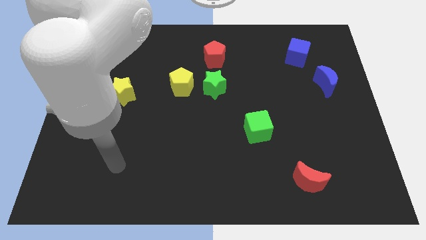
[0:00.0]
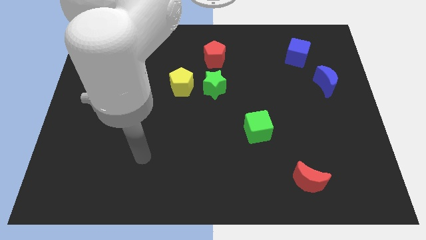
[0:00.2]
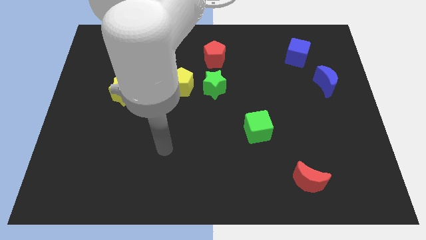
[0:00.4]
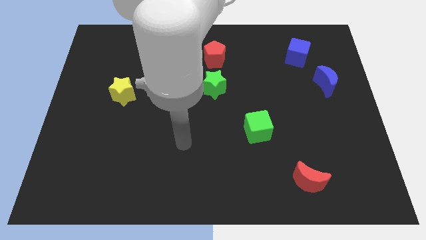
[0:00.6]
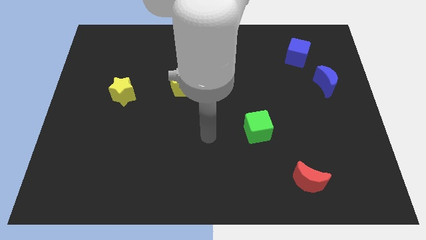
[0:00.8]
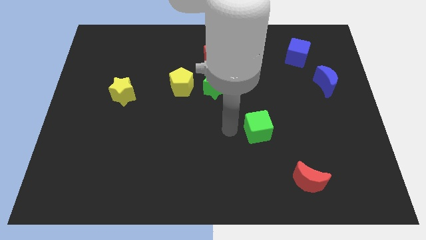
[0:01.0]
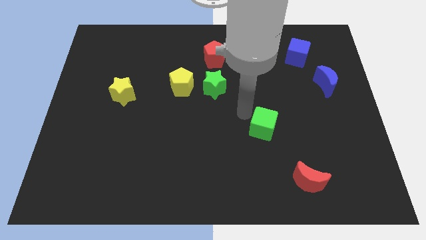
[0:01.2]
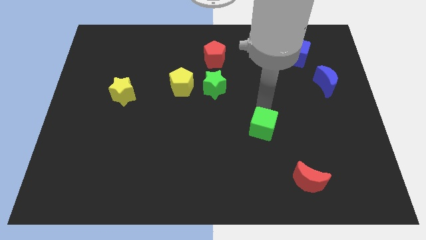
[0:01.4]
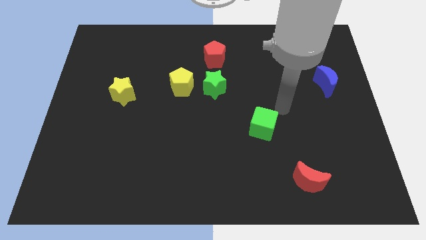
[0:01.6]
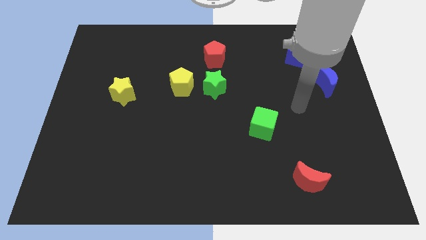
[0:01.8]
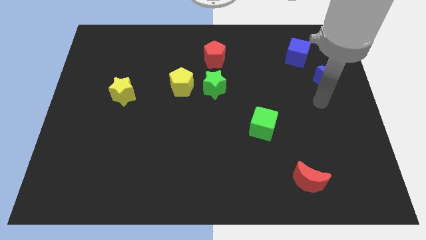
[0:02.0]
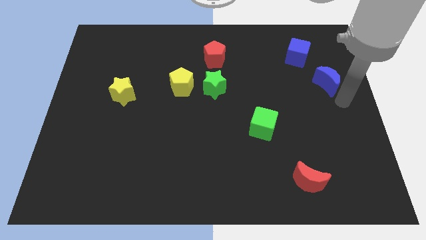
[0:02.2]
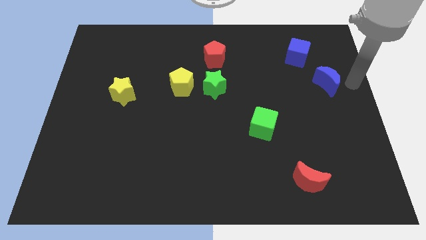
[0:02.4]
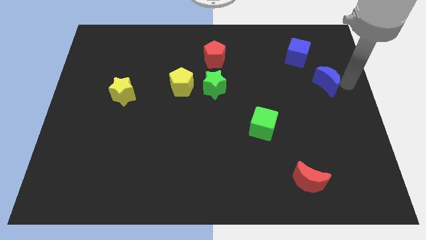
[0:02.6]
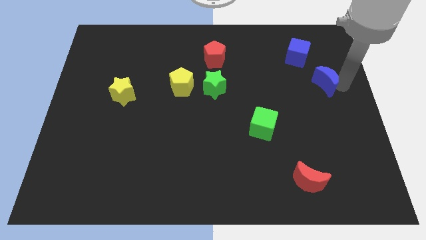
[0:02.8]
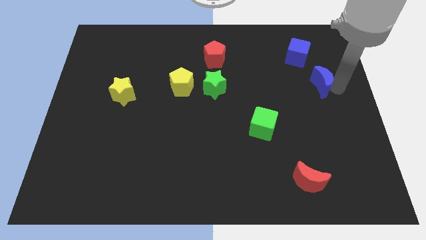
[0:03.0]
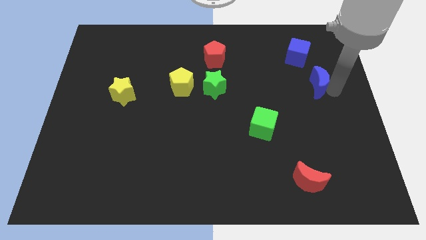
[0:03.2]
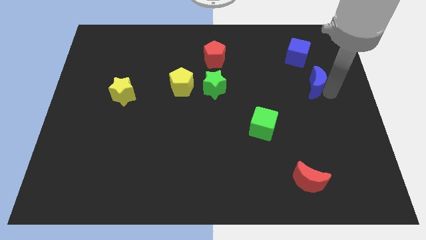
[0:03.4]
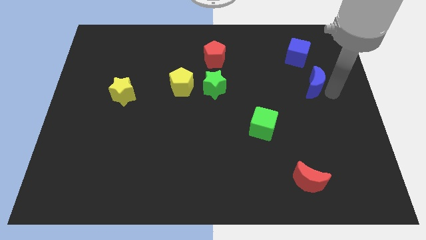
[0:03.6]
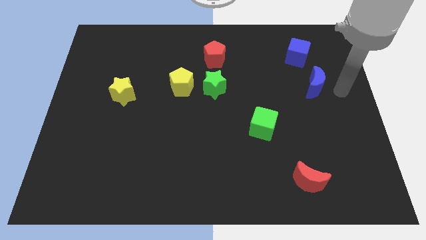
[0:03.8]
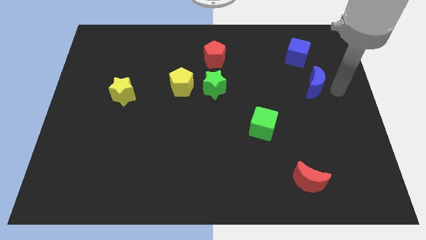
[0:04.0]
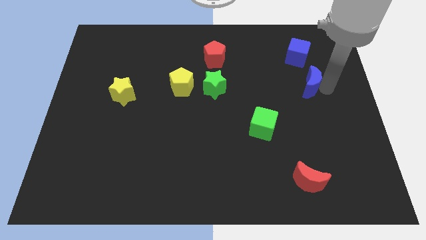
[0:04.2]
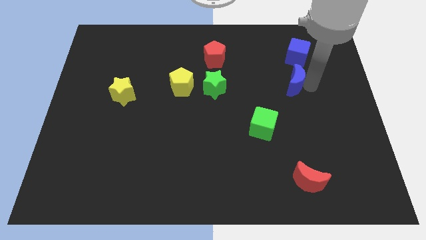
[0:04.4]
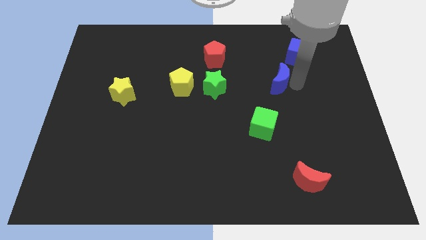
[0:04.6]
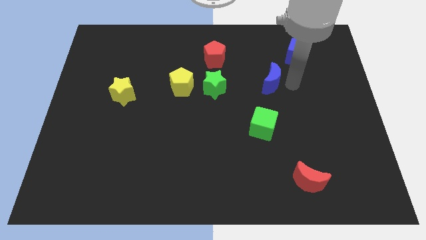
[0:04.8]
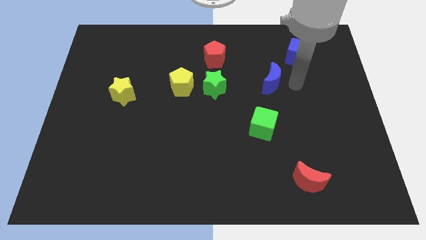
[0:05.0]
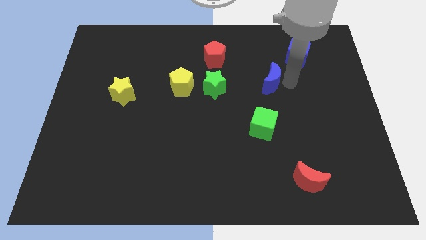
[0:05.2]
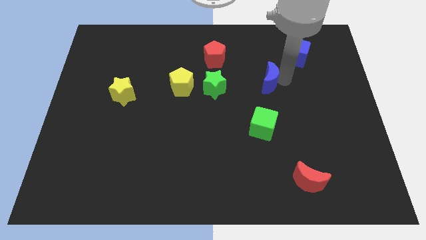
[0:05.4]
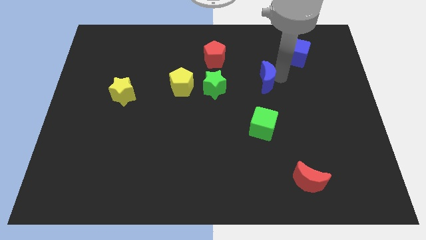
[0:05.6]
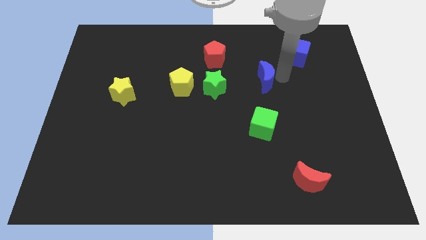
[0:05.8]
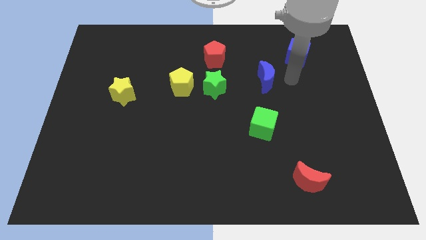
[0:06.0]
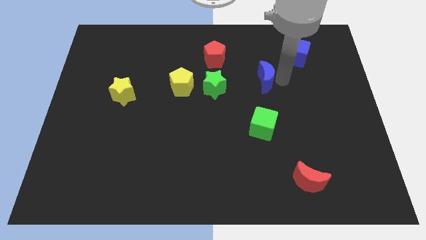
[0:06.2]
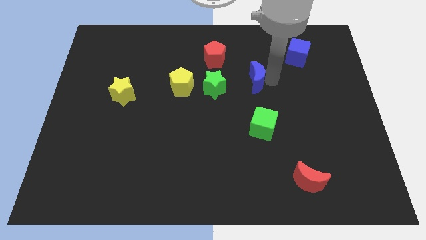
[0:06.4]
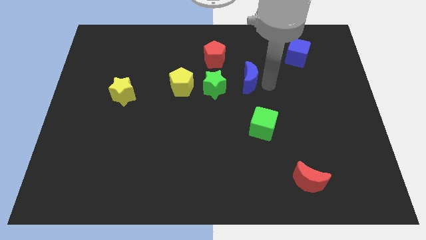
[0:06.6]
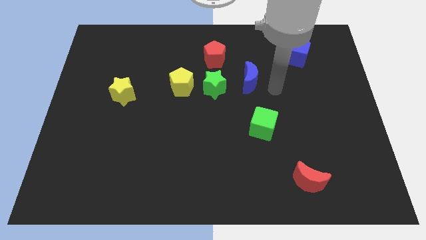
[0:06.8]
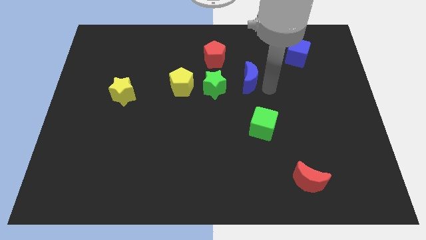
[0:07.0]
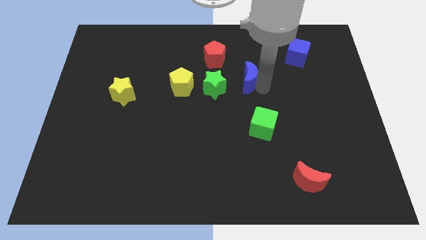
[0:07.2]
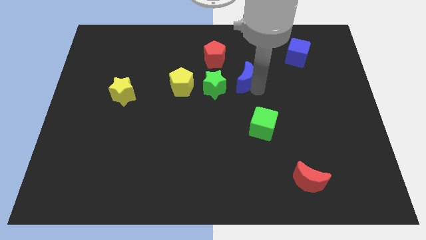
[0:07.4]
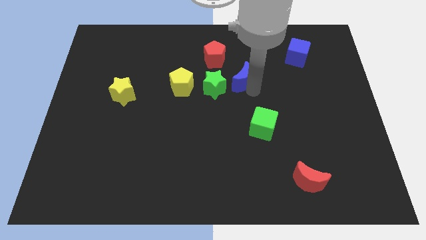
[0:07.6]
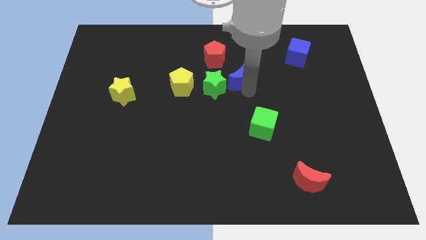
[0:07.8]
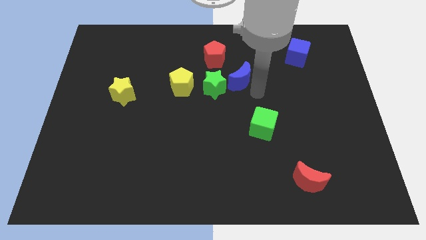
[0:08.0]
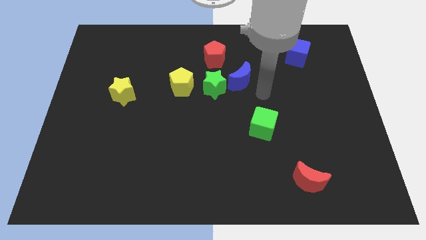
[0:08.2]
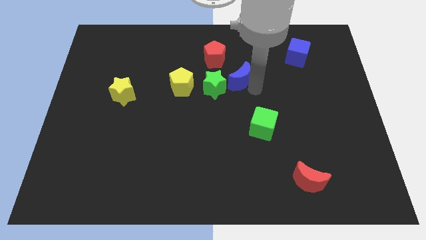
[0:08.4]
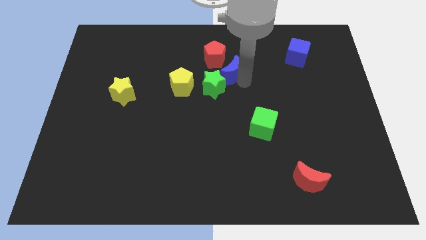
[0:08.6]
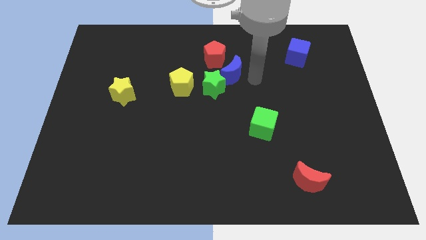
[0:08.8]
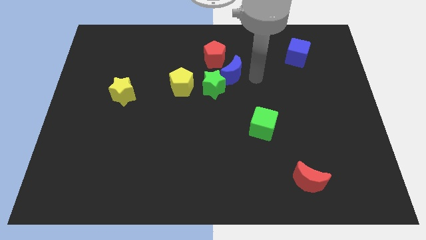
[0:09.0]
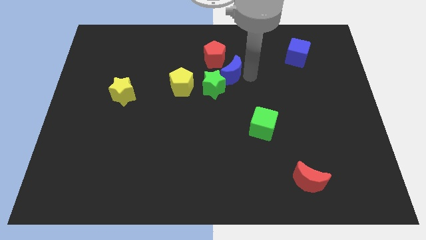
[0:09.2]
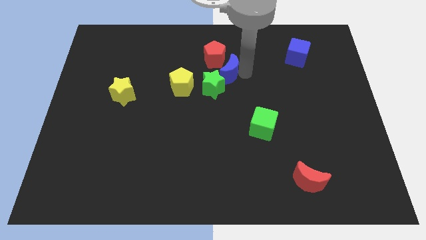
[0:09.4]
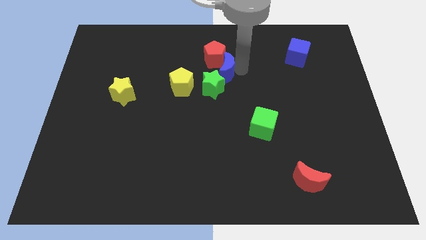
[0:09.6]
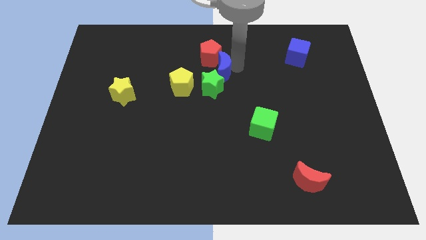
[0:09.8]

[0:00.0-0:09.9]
push the blue moon to the top right of the yellow pentagon

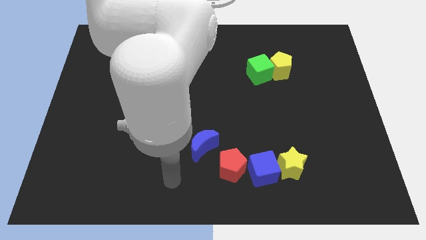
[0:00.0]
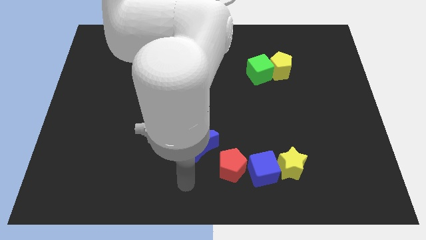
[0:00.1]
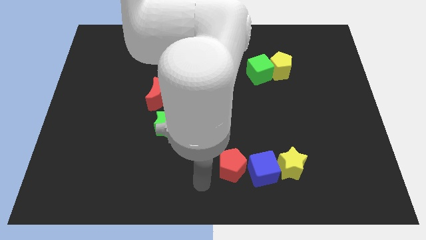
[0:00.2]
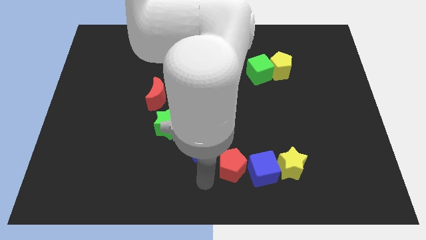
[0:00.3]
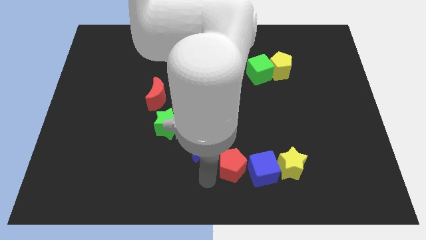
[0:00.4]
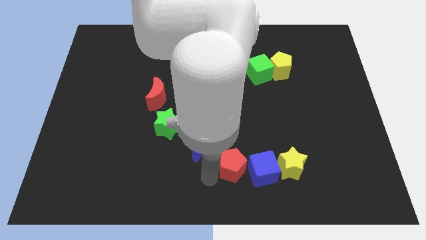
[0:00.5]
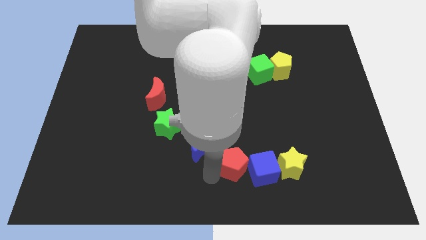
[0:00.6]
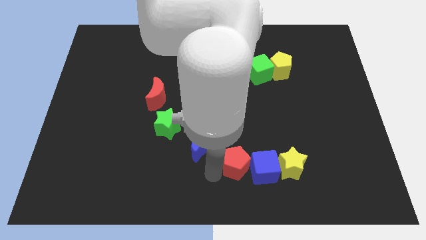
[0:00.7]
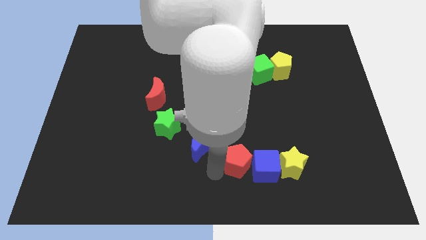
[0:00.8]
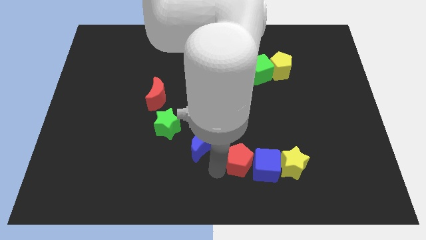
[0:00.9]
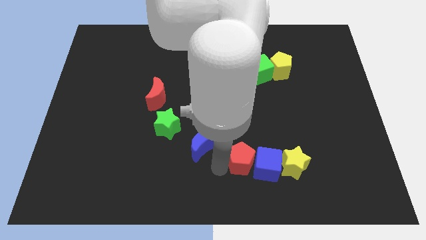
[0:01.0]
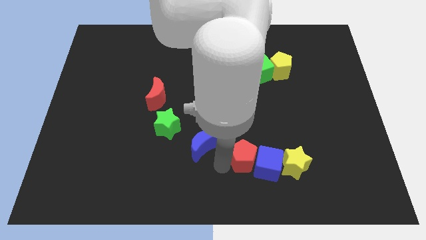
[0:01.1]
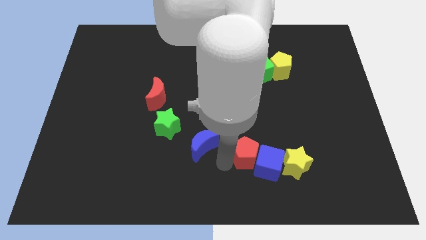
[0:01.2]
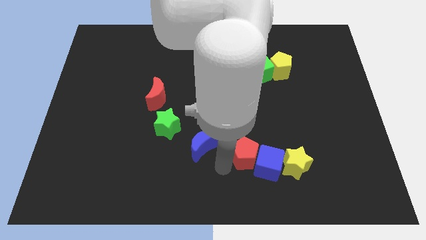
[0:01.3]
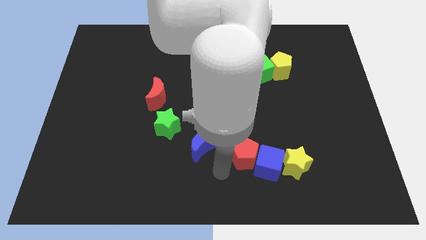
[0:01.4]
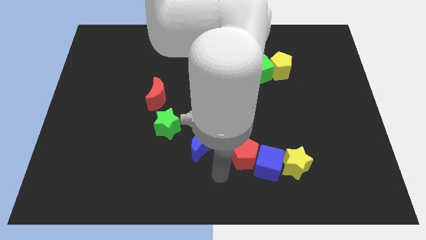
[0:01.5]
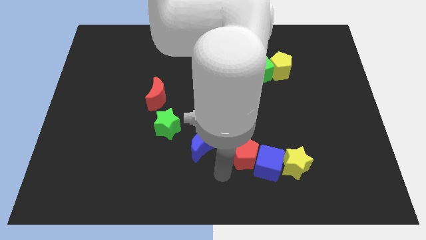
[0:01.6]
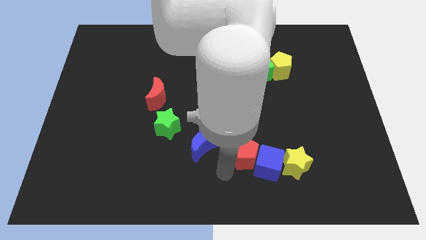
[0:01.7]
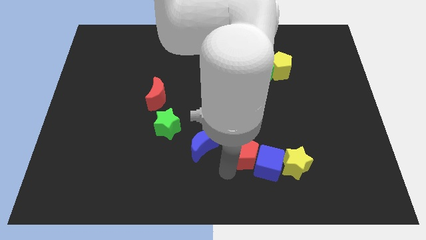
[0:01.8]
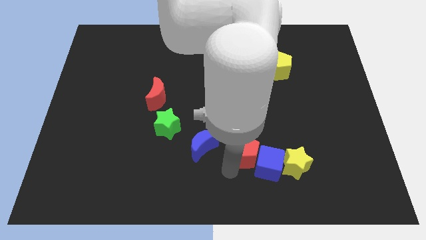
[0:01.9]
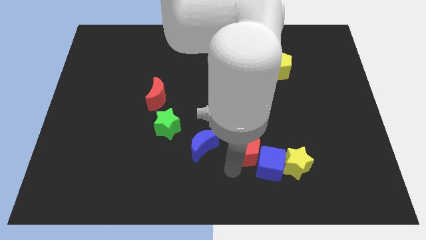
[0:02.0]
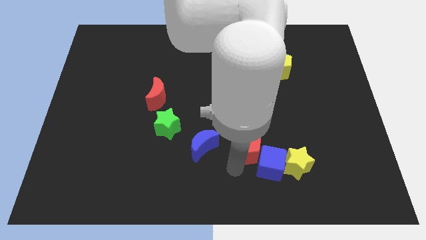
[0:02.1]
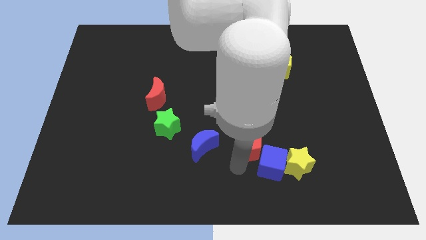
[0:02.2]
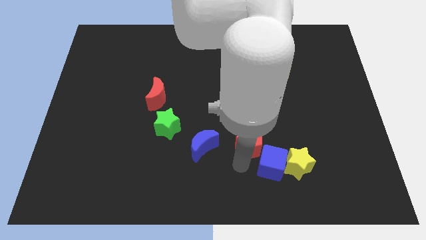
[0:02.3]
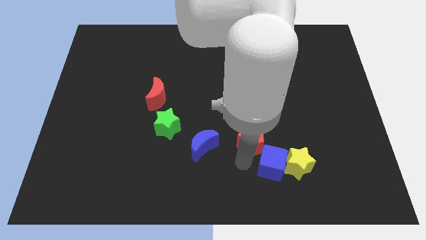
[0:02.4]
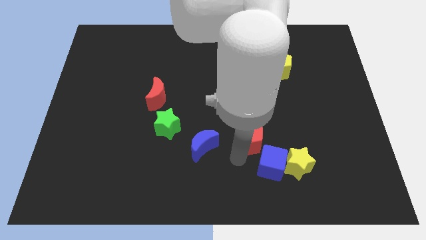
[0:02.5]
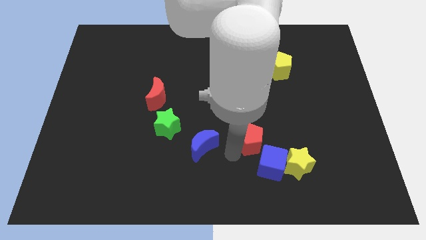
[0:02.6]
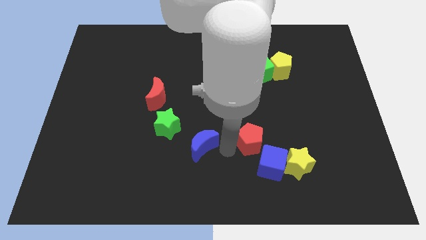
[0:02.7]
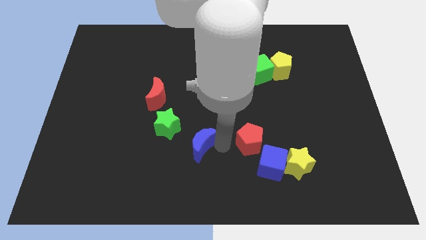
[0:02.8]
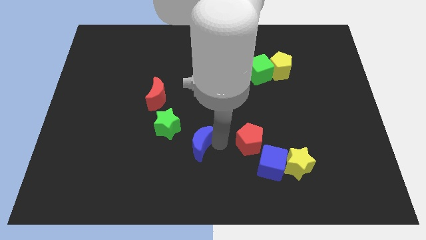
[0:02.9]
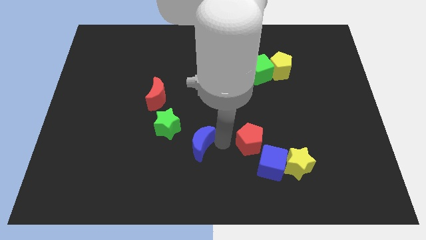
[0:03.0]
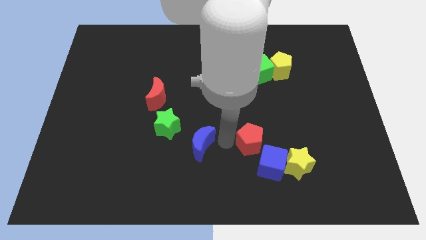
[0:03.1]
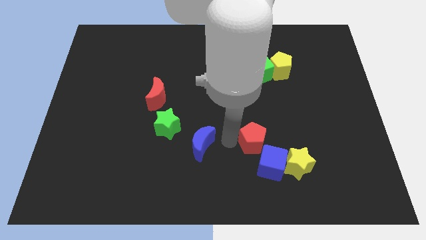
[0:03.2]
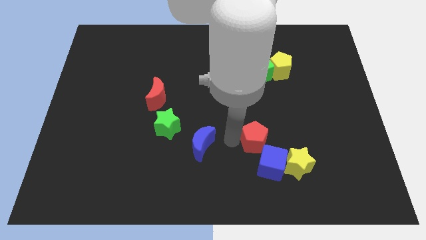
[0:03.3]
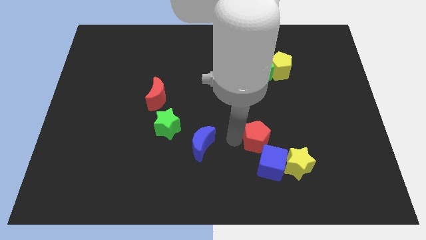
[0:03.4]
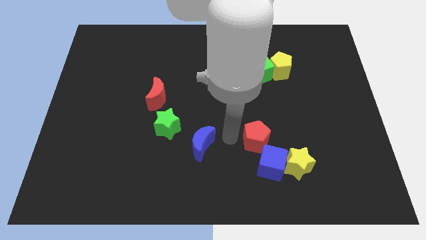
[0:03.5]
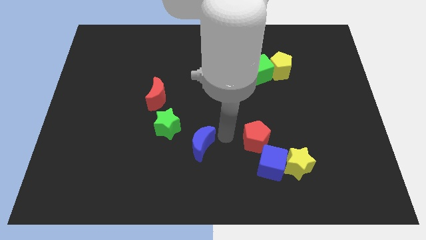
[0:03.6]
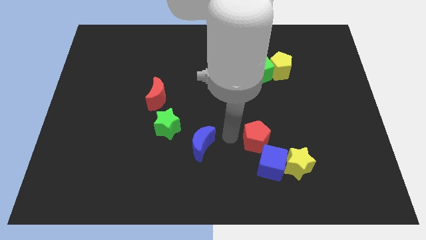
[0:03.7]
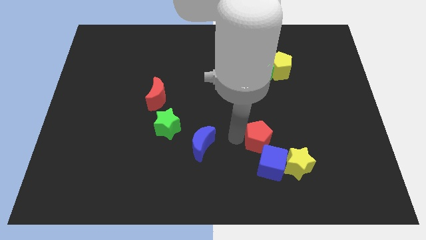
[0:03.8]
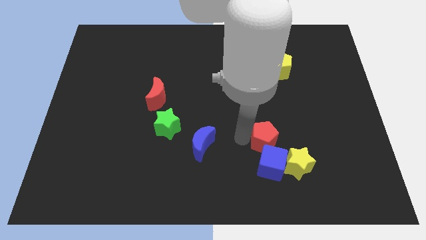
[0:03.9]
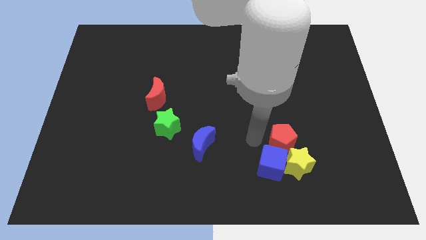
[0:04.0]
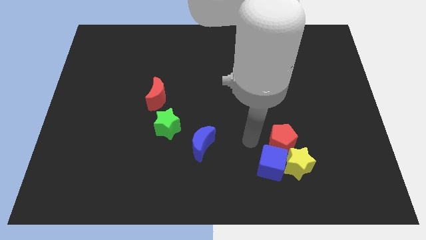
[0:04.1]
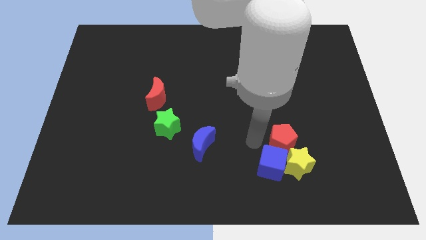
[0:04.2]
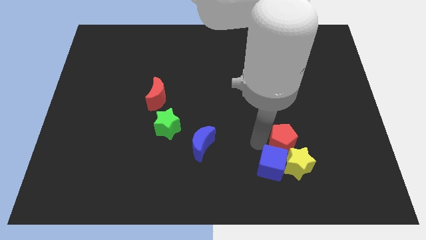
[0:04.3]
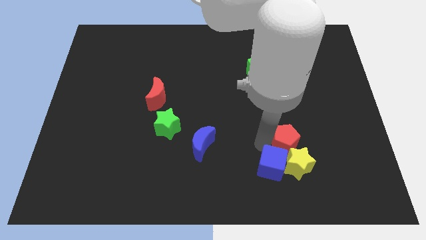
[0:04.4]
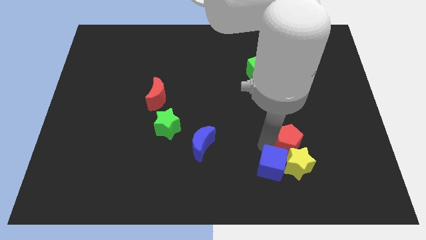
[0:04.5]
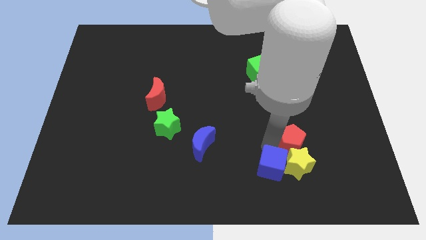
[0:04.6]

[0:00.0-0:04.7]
move the red pentagon to the top right side of the yellow star
